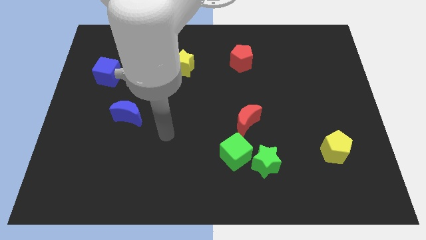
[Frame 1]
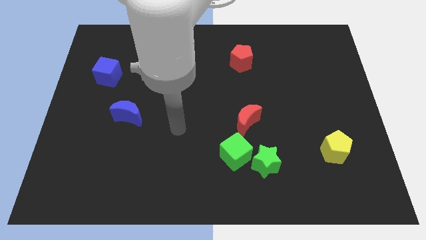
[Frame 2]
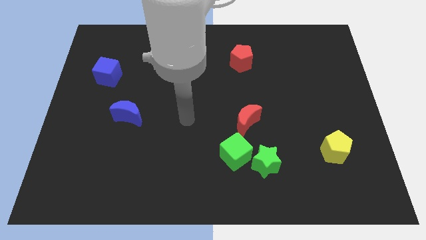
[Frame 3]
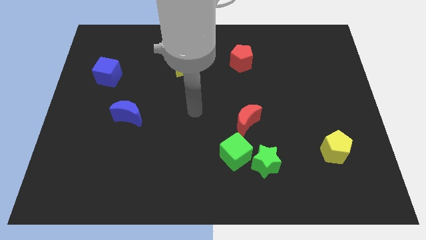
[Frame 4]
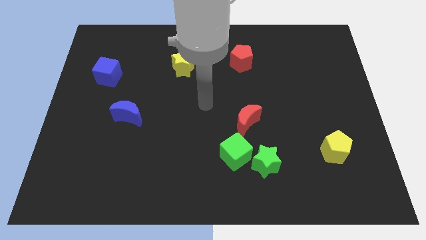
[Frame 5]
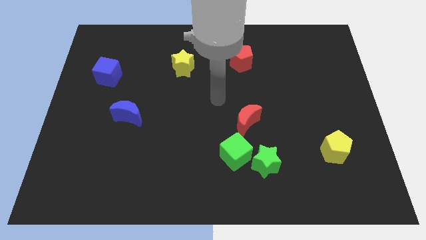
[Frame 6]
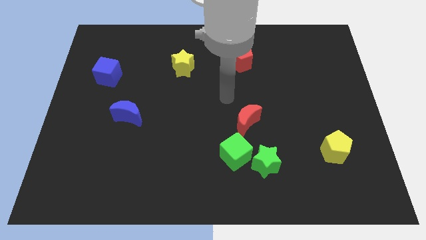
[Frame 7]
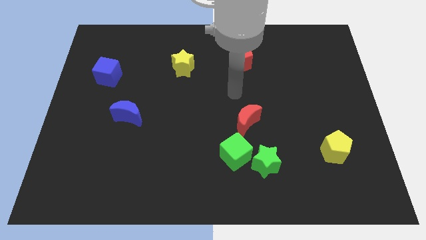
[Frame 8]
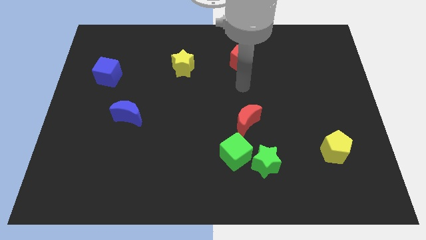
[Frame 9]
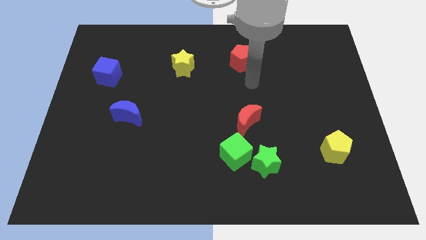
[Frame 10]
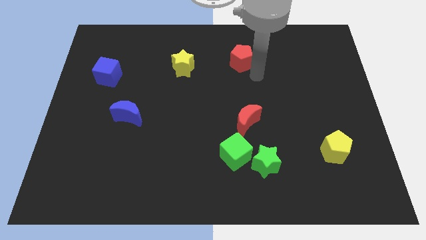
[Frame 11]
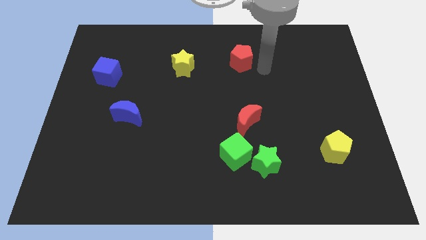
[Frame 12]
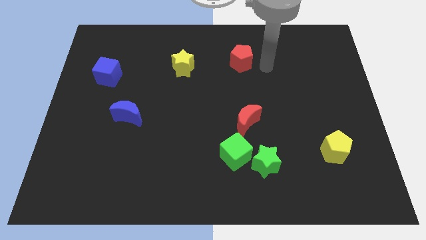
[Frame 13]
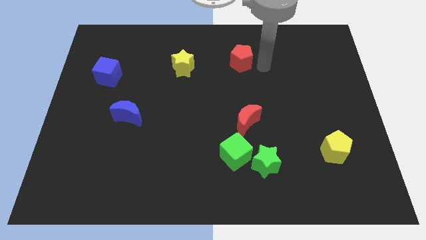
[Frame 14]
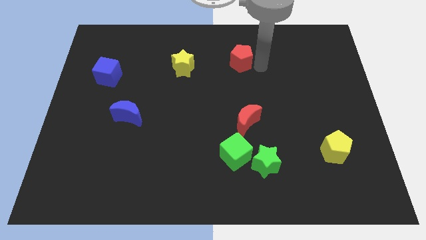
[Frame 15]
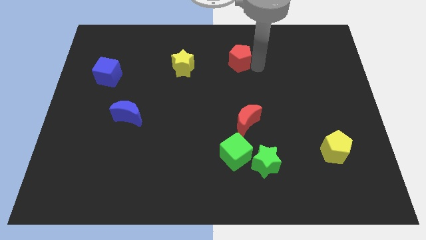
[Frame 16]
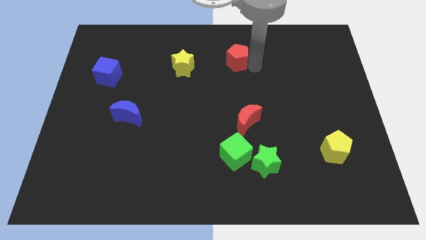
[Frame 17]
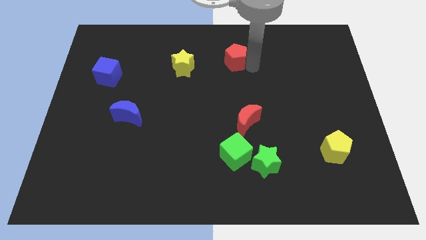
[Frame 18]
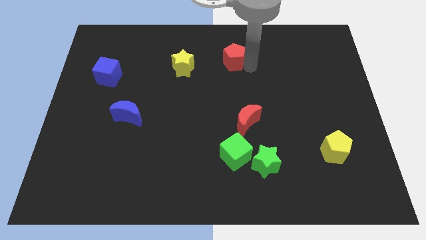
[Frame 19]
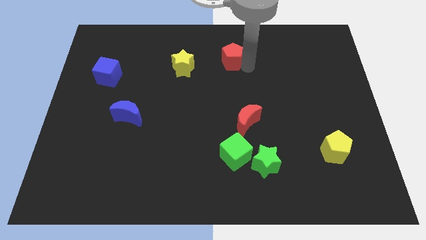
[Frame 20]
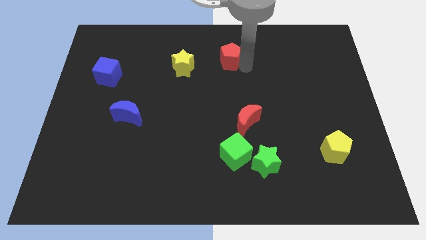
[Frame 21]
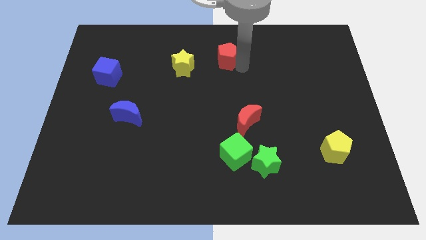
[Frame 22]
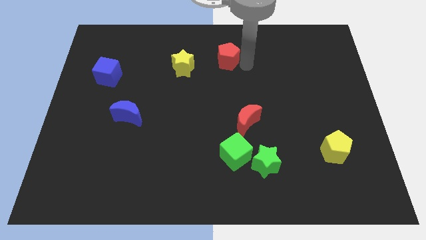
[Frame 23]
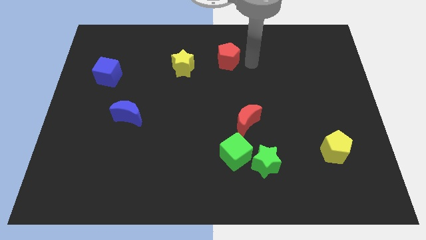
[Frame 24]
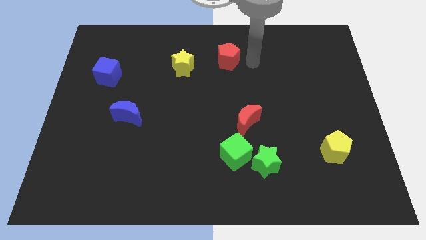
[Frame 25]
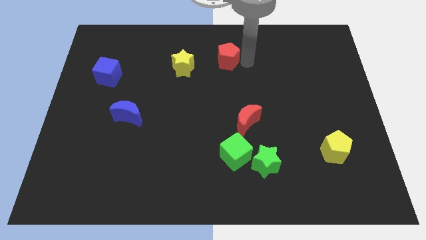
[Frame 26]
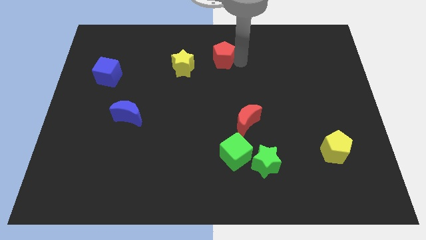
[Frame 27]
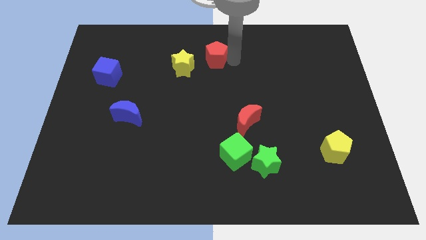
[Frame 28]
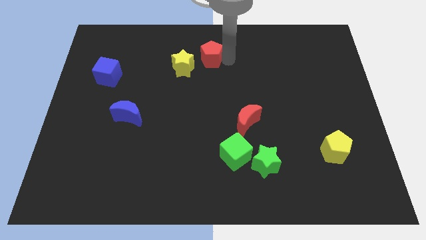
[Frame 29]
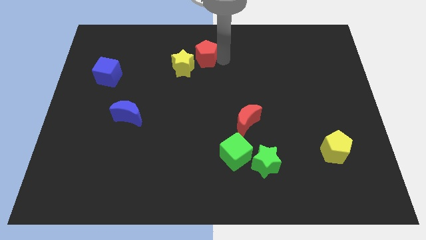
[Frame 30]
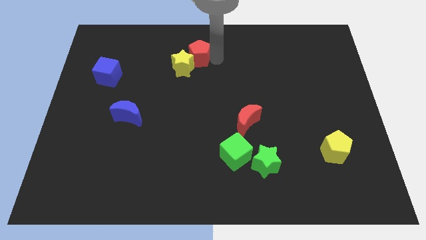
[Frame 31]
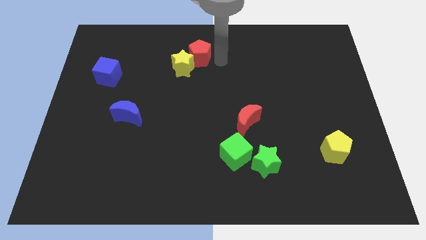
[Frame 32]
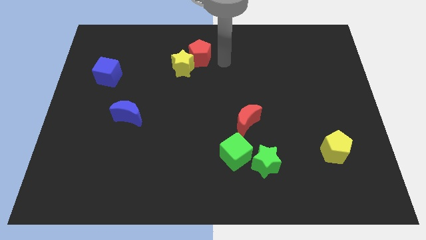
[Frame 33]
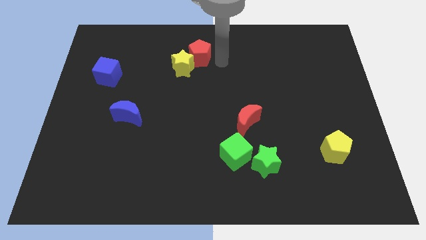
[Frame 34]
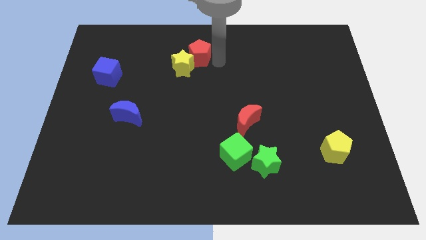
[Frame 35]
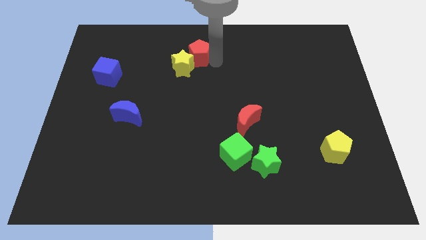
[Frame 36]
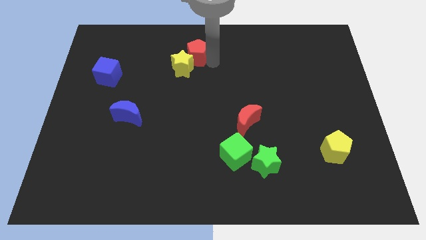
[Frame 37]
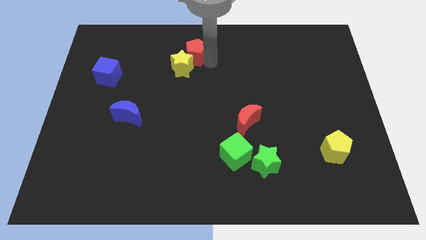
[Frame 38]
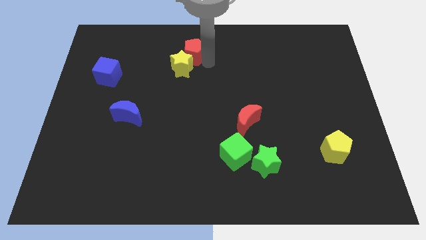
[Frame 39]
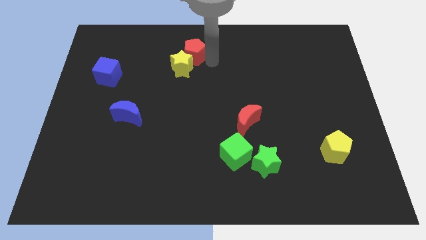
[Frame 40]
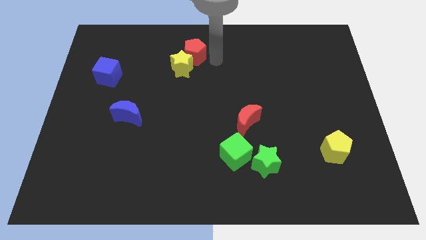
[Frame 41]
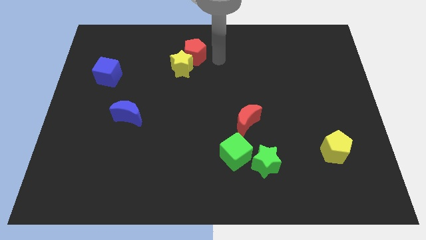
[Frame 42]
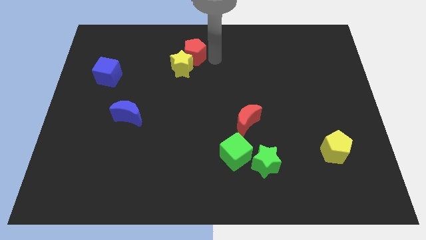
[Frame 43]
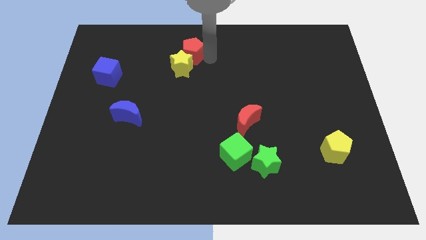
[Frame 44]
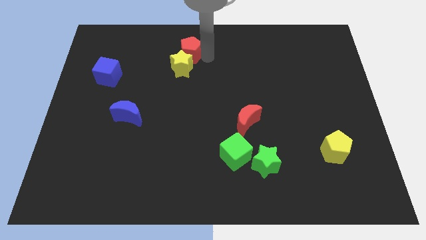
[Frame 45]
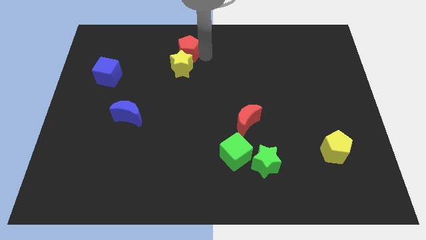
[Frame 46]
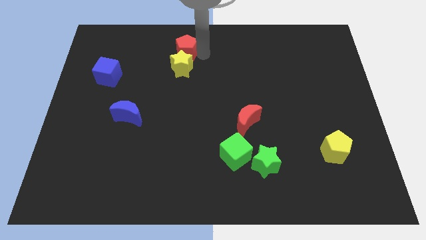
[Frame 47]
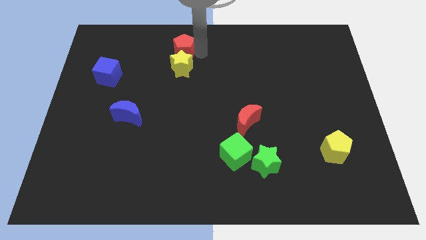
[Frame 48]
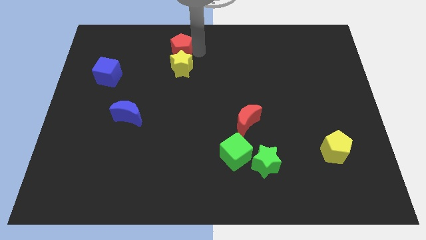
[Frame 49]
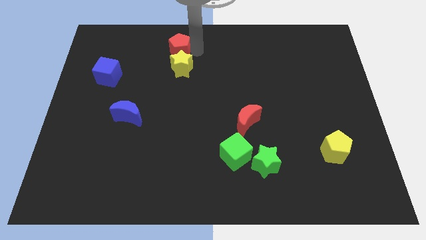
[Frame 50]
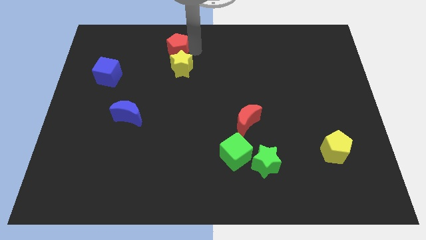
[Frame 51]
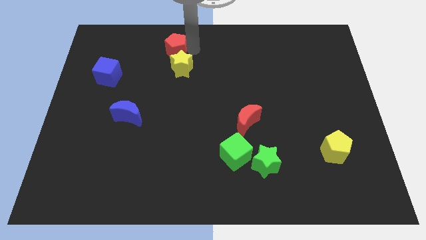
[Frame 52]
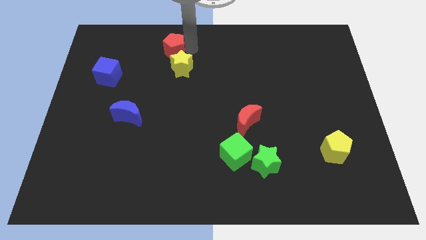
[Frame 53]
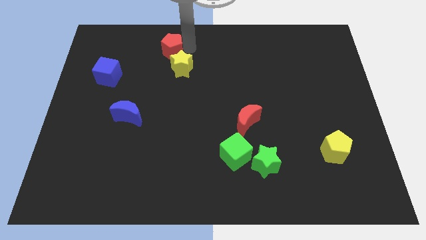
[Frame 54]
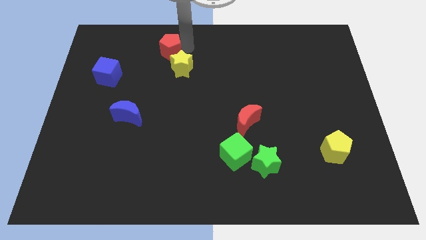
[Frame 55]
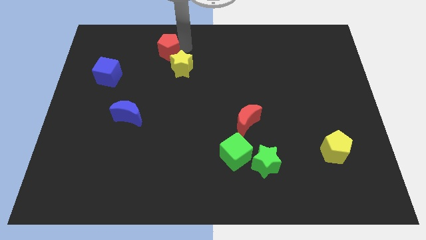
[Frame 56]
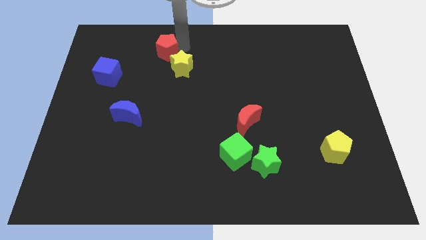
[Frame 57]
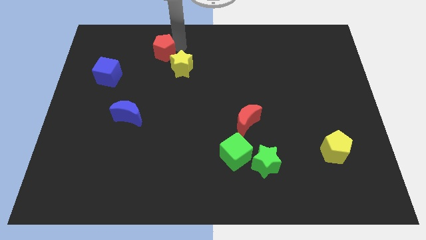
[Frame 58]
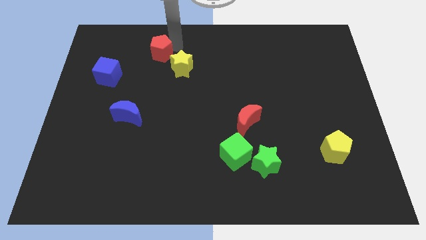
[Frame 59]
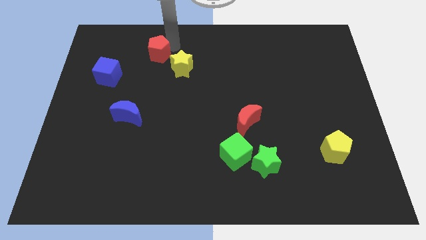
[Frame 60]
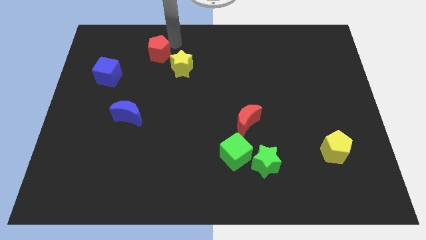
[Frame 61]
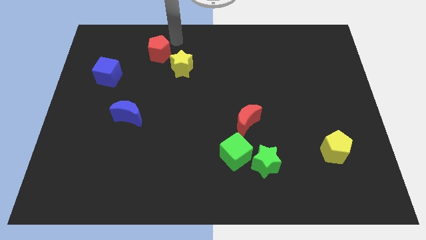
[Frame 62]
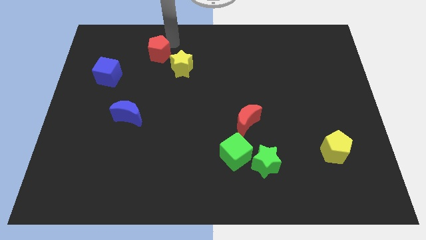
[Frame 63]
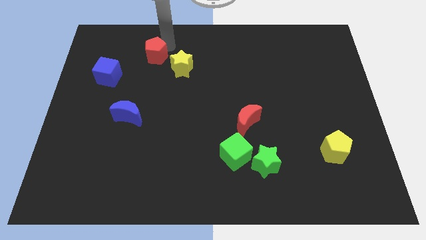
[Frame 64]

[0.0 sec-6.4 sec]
slide the red pentagon to the left of the yellow star

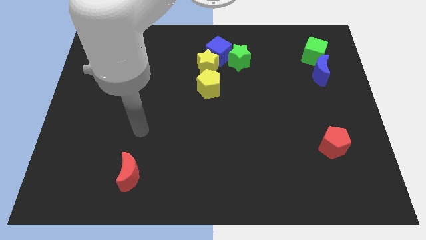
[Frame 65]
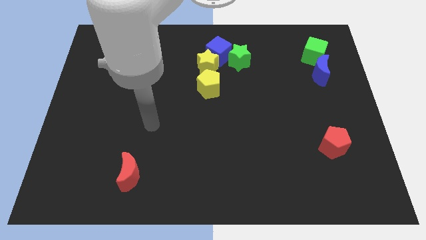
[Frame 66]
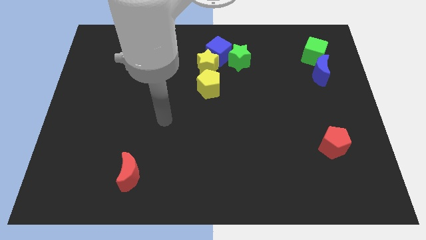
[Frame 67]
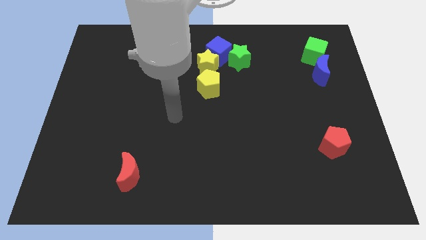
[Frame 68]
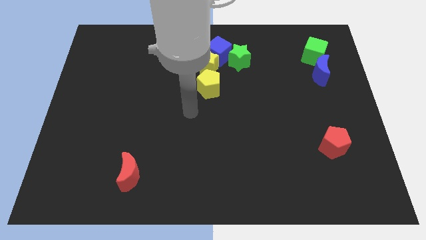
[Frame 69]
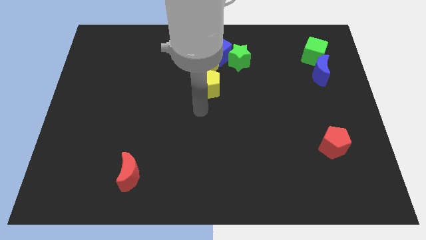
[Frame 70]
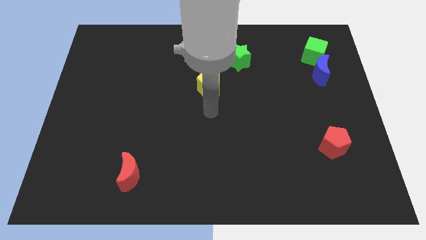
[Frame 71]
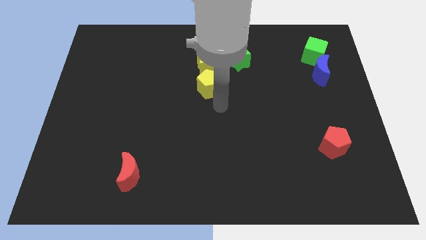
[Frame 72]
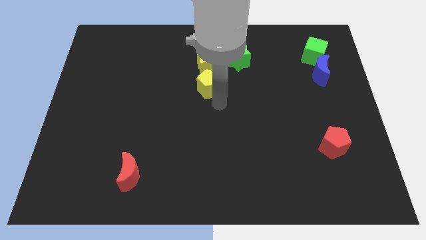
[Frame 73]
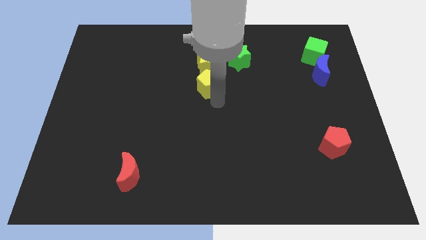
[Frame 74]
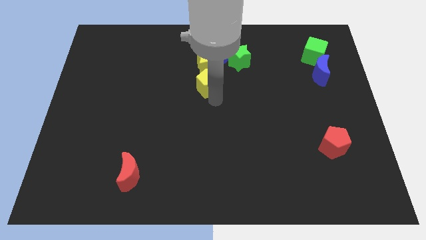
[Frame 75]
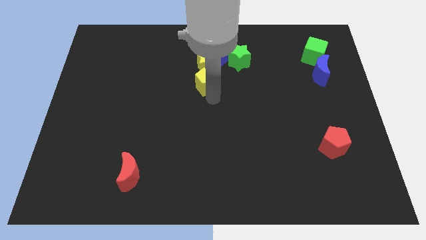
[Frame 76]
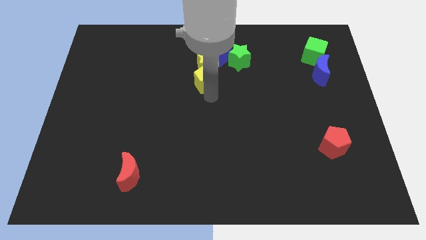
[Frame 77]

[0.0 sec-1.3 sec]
push the yellow pentagon diagonally down and to the left of the blue cube

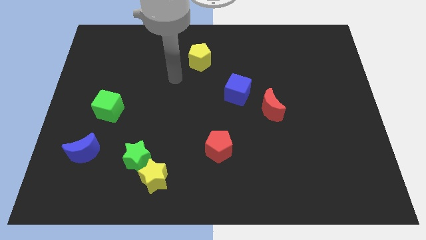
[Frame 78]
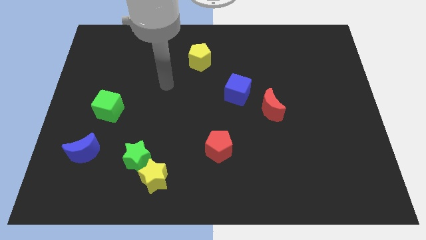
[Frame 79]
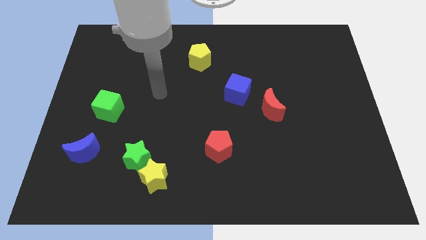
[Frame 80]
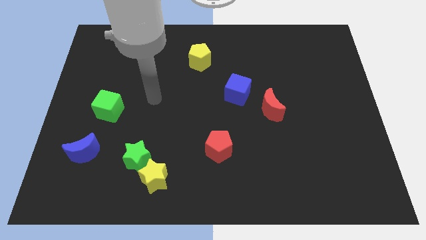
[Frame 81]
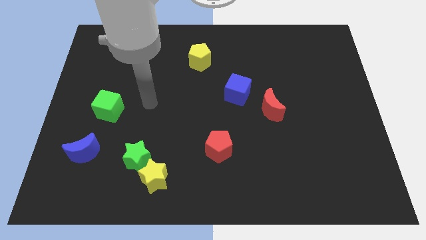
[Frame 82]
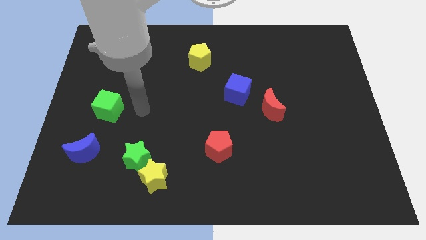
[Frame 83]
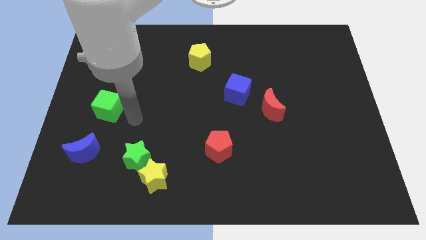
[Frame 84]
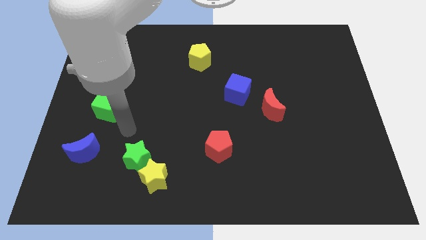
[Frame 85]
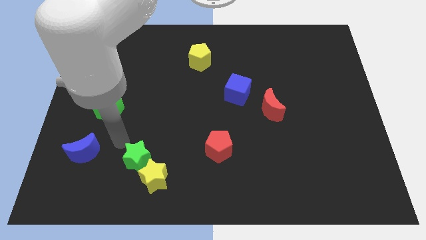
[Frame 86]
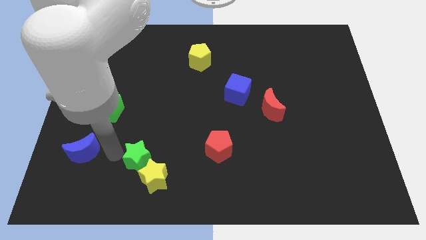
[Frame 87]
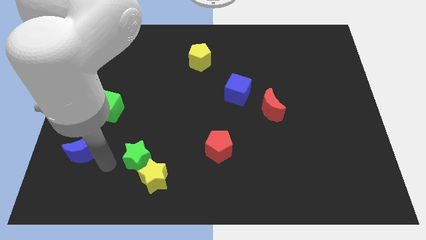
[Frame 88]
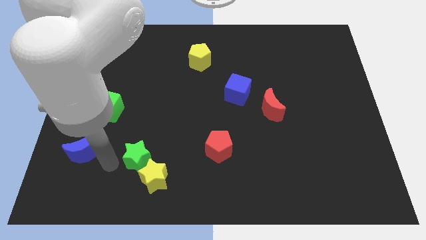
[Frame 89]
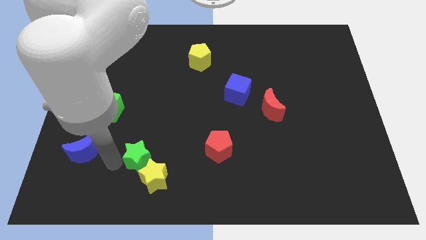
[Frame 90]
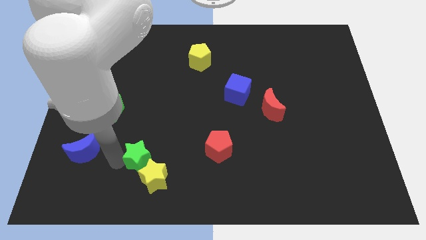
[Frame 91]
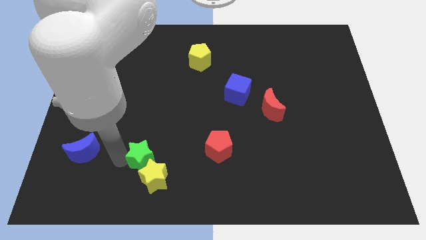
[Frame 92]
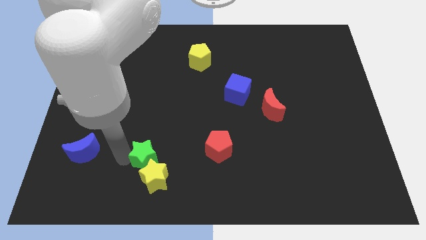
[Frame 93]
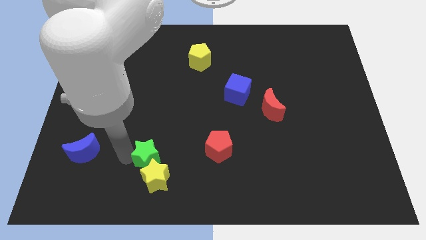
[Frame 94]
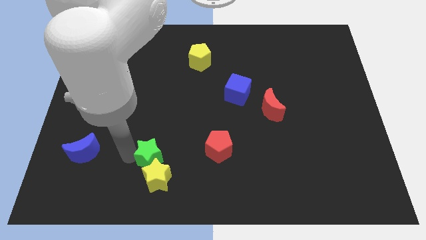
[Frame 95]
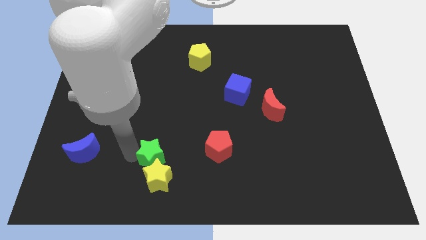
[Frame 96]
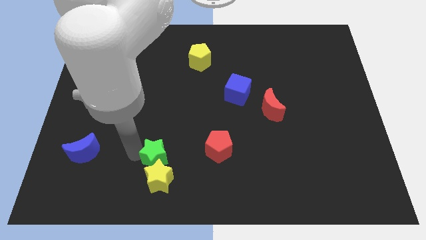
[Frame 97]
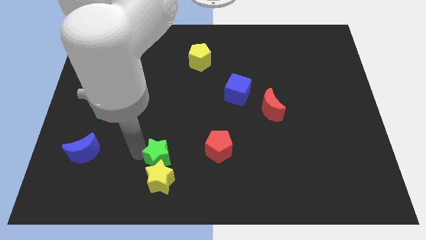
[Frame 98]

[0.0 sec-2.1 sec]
push the green star to the top right side of the yellow star
